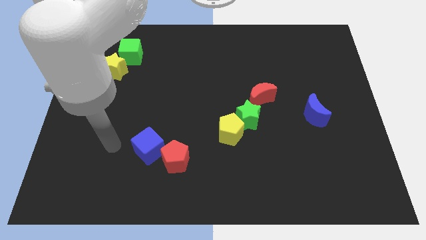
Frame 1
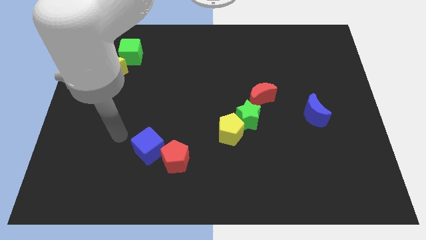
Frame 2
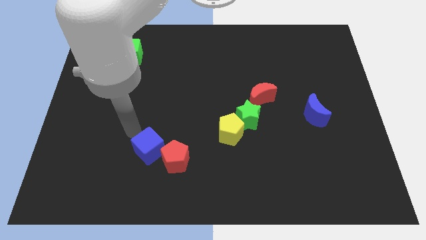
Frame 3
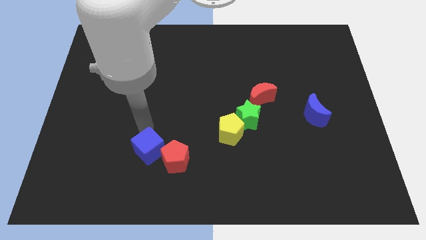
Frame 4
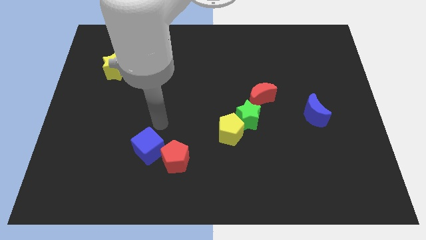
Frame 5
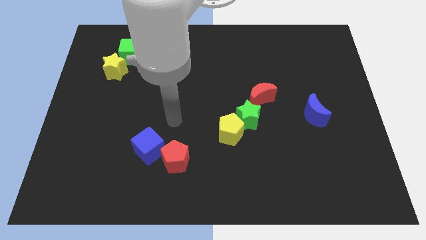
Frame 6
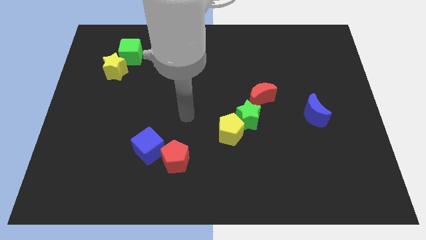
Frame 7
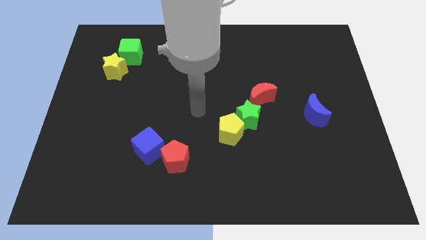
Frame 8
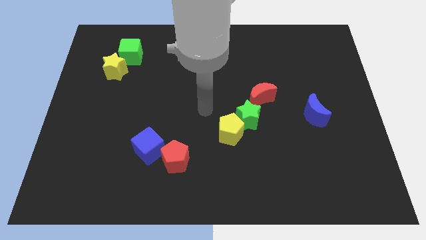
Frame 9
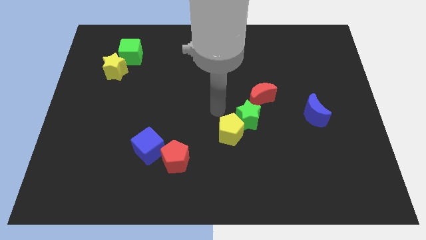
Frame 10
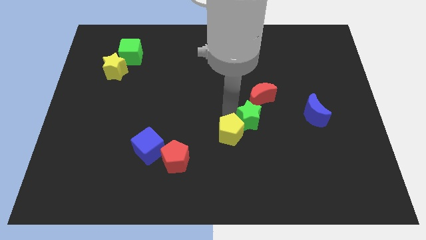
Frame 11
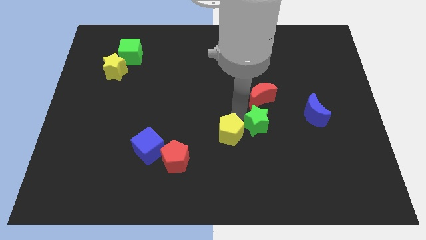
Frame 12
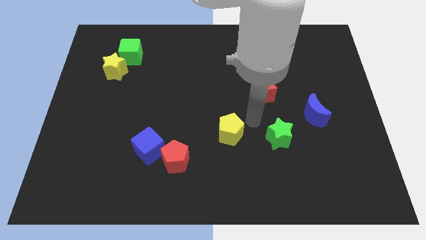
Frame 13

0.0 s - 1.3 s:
separate the yellow pentagon from the green star

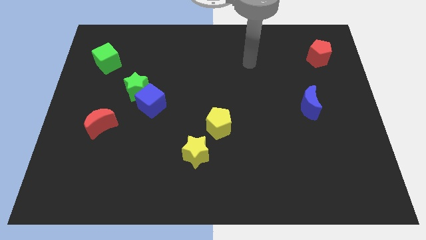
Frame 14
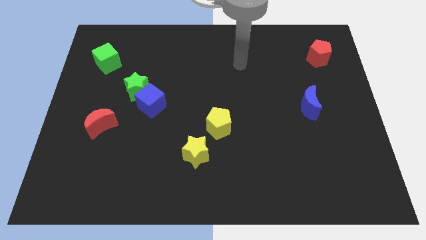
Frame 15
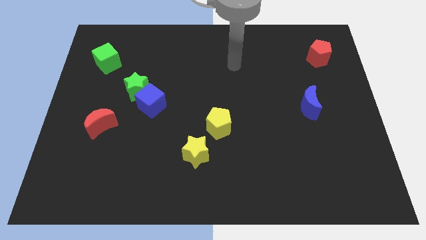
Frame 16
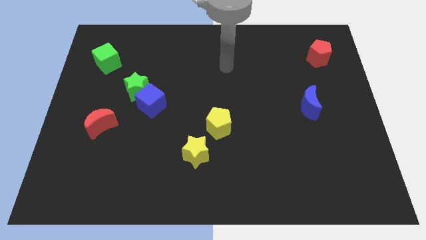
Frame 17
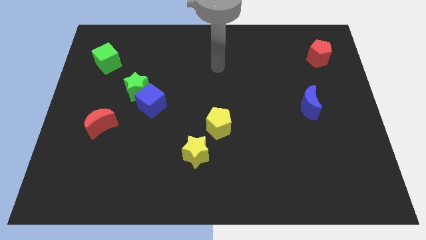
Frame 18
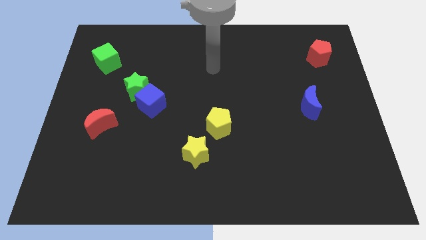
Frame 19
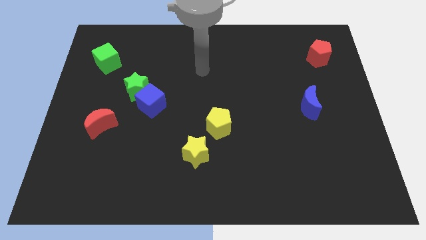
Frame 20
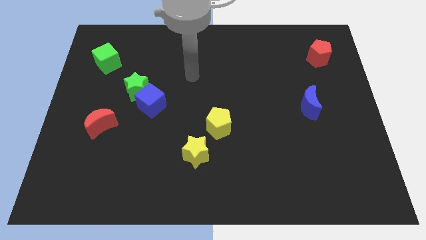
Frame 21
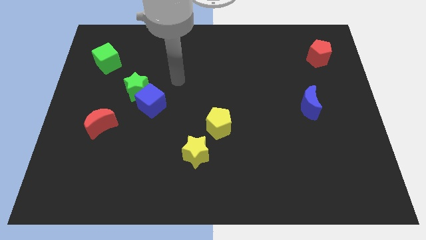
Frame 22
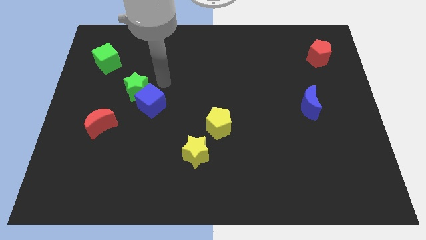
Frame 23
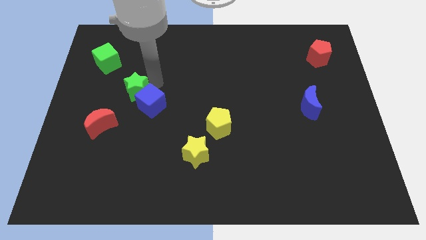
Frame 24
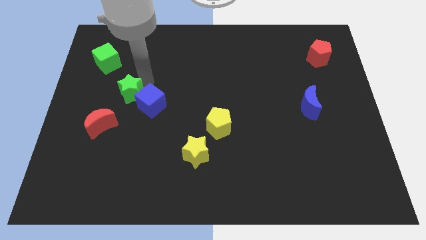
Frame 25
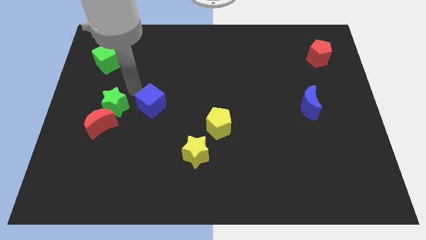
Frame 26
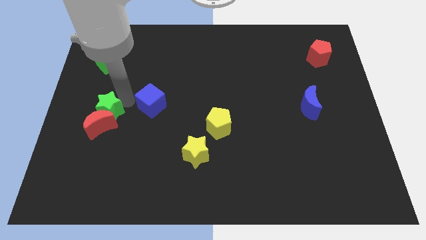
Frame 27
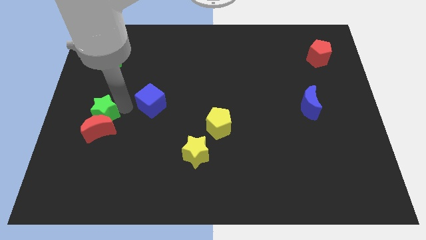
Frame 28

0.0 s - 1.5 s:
move the blue cube away from the green star

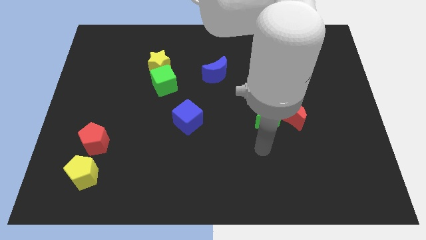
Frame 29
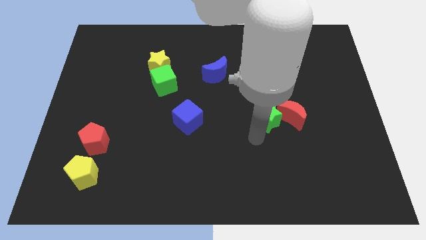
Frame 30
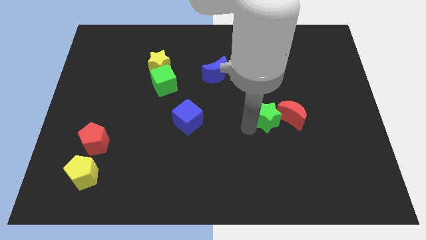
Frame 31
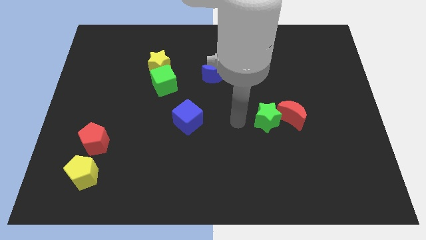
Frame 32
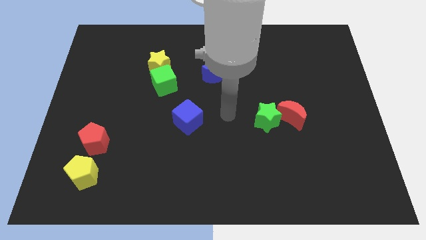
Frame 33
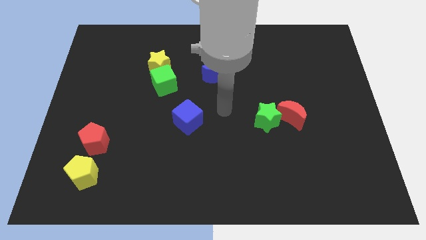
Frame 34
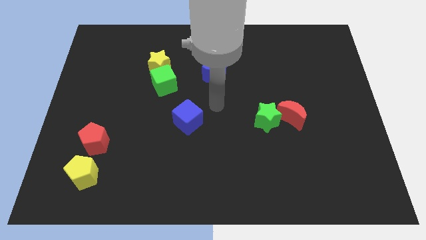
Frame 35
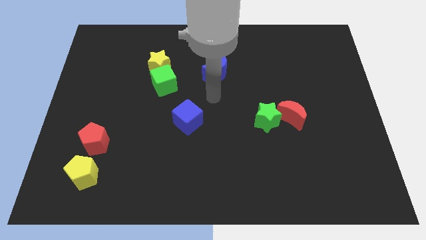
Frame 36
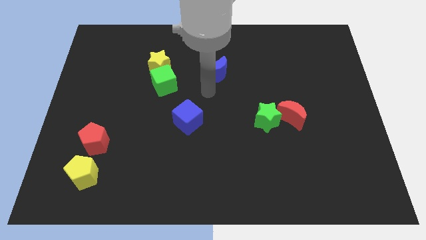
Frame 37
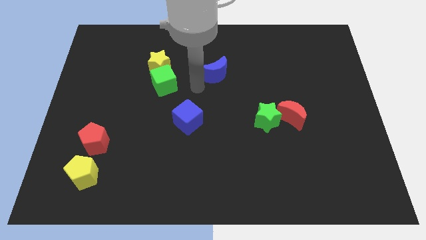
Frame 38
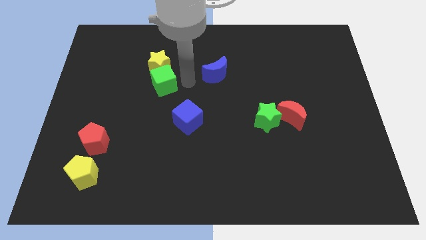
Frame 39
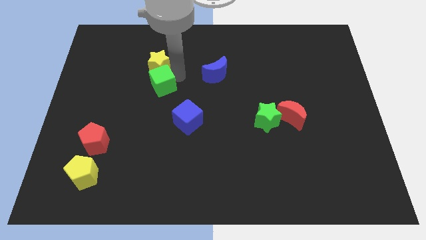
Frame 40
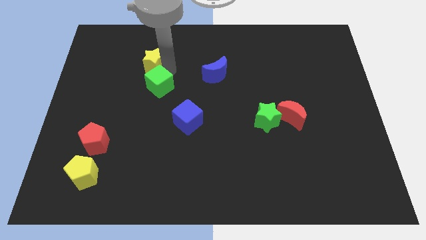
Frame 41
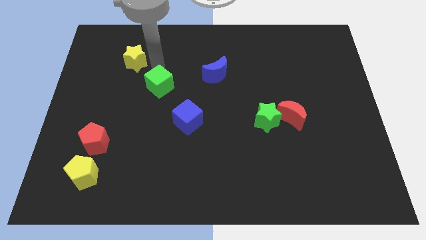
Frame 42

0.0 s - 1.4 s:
pull the green cube apart from the yellow star

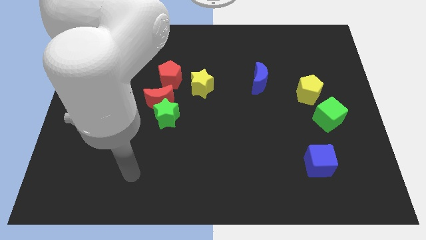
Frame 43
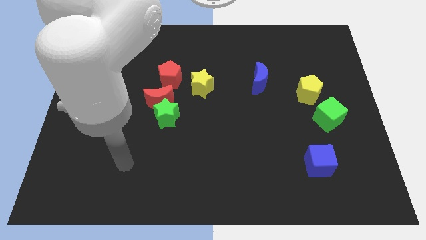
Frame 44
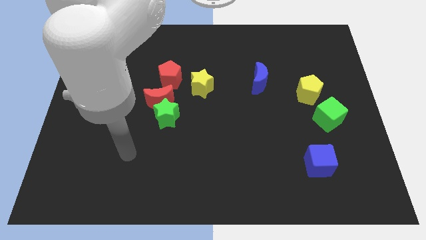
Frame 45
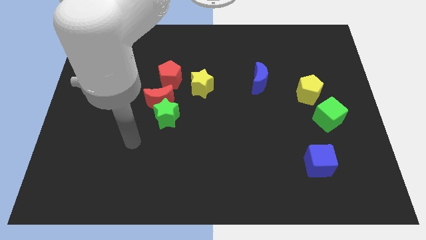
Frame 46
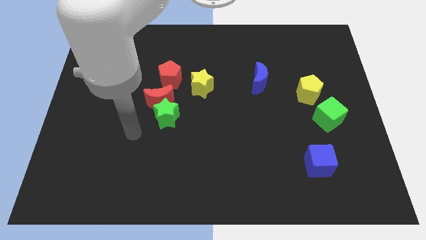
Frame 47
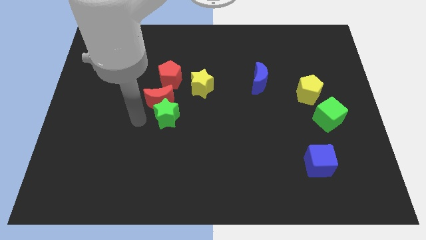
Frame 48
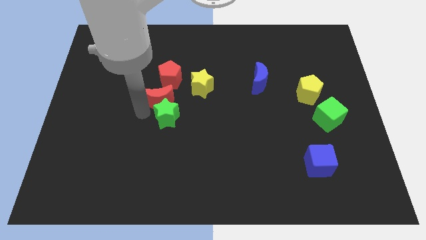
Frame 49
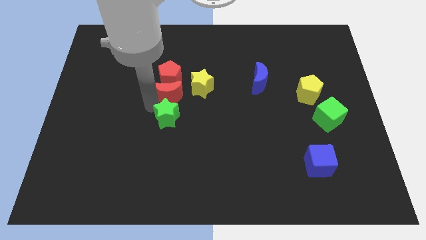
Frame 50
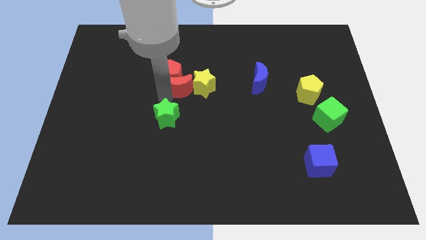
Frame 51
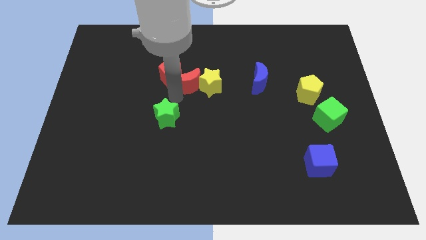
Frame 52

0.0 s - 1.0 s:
separate the green star from the red moon

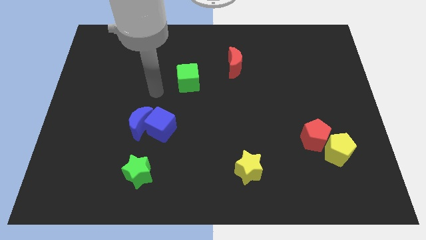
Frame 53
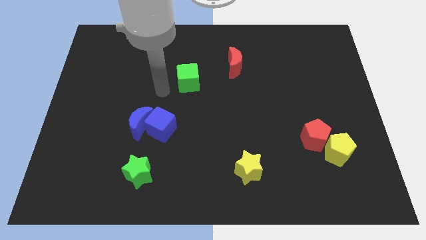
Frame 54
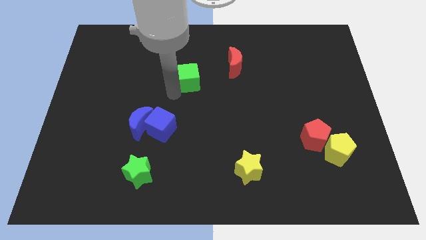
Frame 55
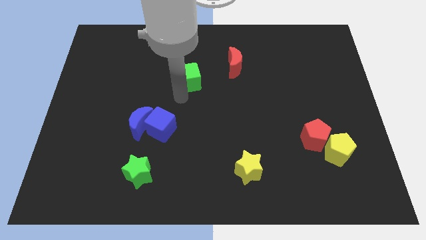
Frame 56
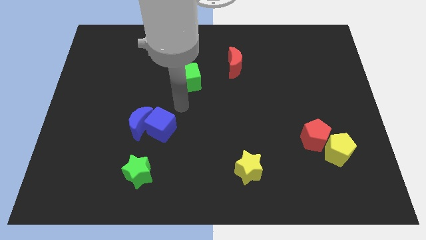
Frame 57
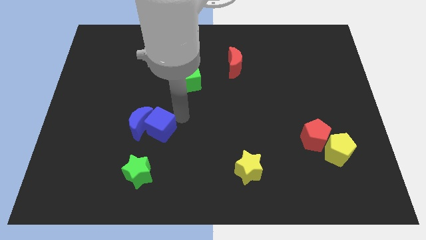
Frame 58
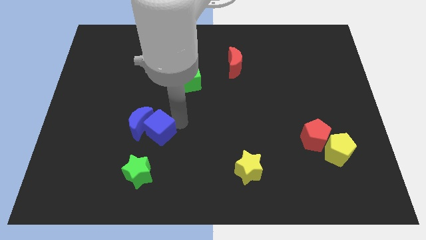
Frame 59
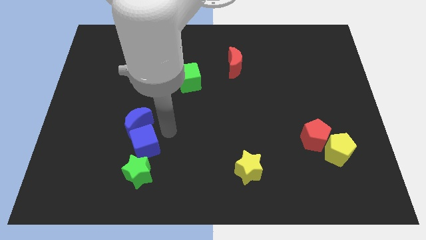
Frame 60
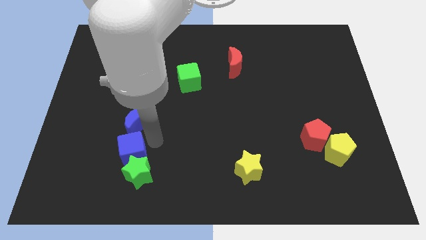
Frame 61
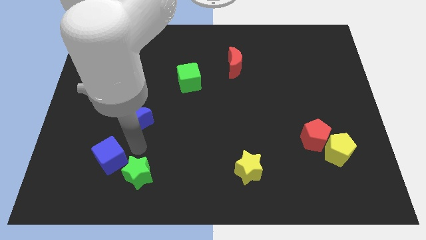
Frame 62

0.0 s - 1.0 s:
separate the blue moon from the blue cube

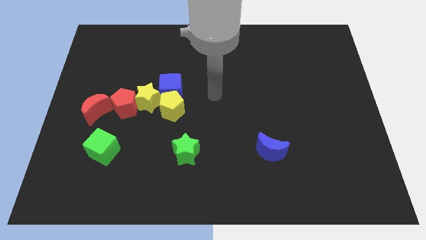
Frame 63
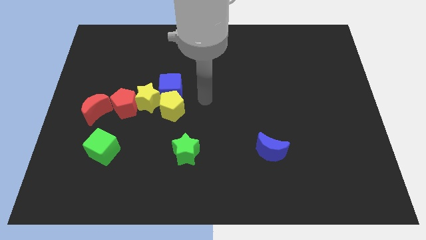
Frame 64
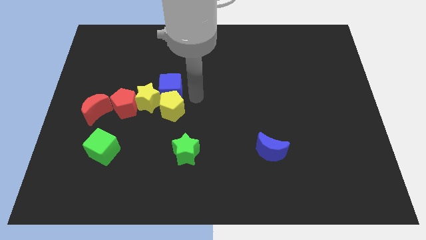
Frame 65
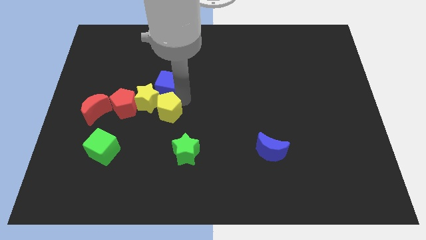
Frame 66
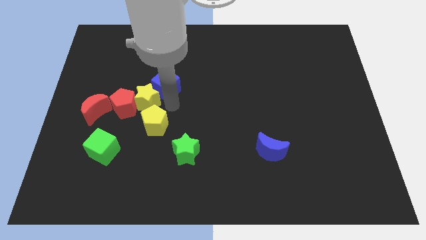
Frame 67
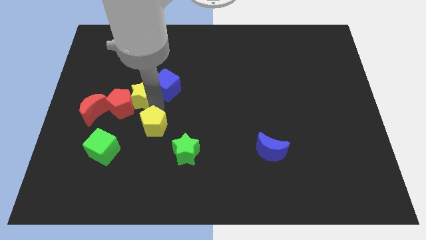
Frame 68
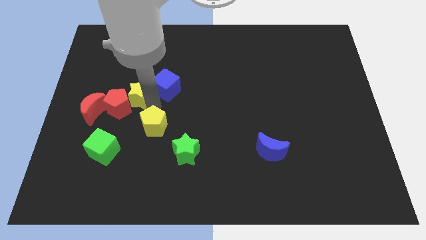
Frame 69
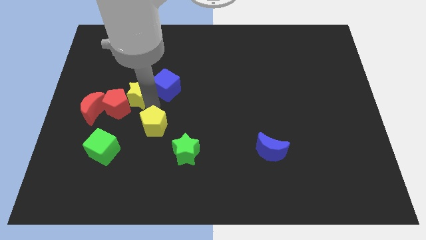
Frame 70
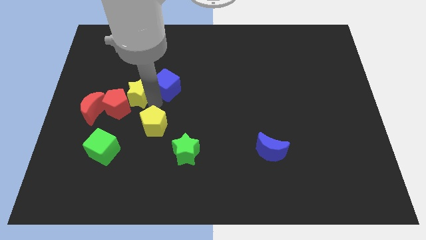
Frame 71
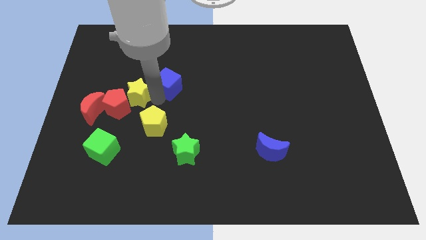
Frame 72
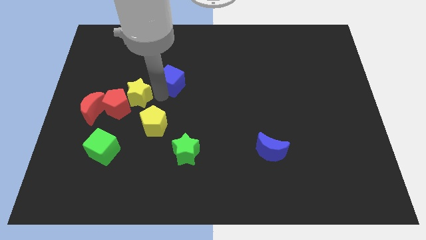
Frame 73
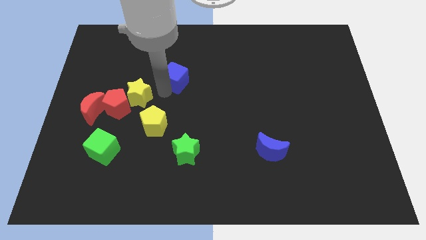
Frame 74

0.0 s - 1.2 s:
move the blue cube away from the yellow pentagon and yellow star

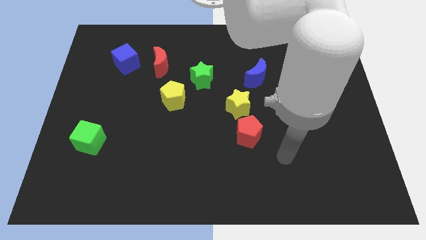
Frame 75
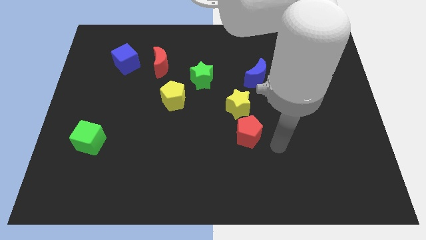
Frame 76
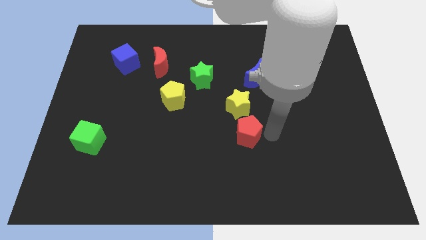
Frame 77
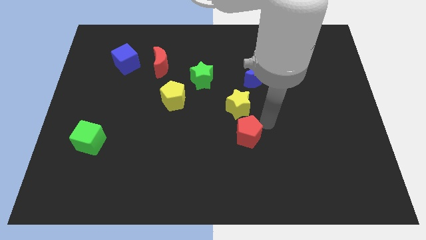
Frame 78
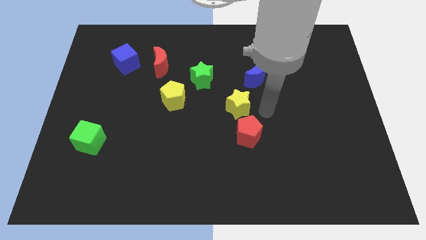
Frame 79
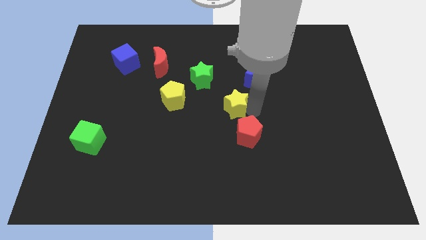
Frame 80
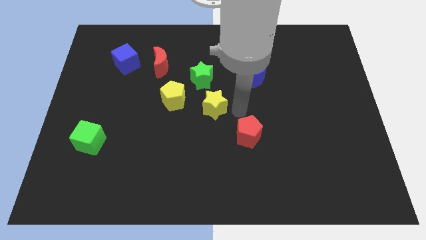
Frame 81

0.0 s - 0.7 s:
separate the red pentagon from the yellow star

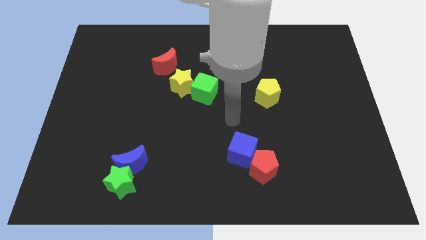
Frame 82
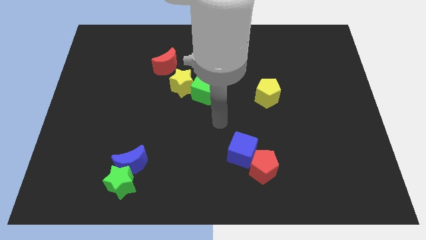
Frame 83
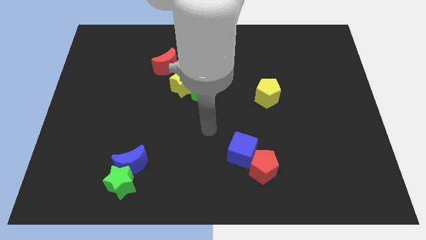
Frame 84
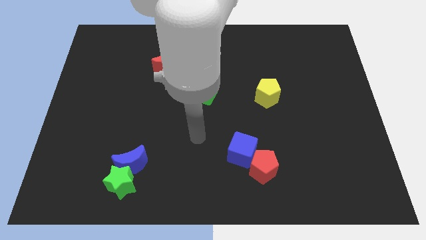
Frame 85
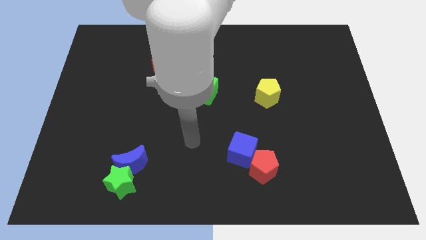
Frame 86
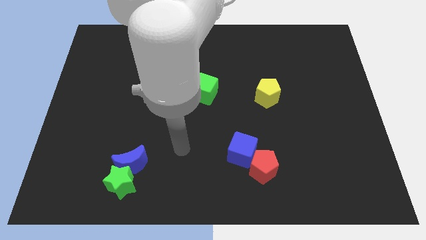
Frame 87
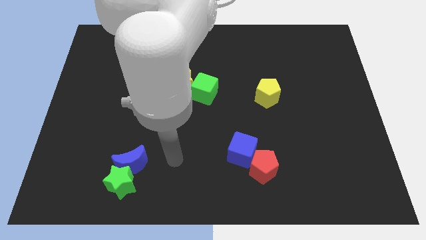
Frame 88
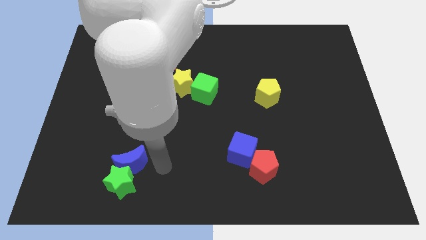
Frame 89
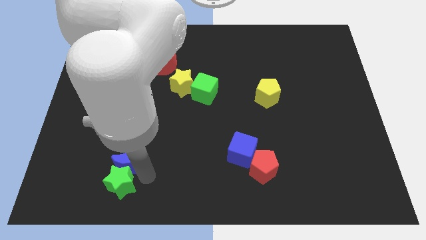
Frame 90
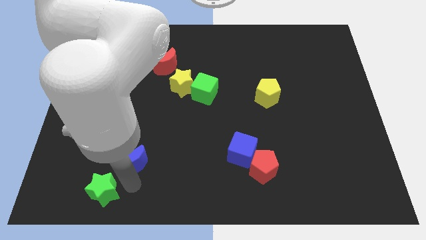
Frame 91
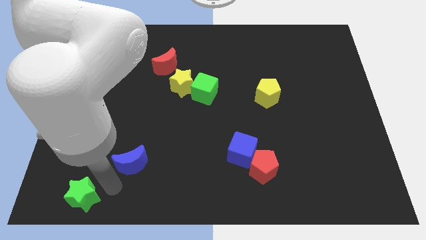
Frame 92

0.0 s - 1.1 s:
separate the blue moon from the green star
